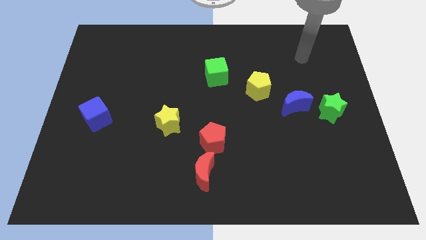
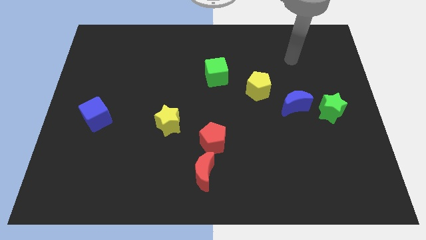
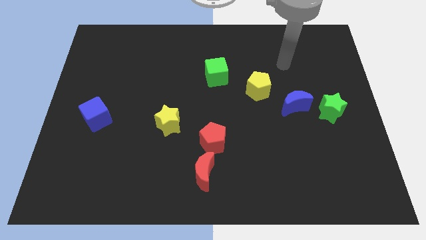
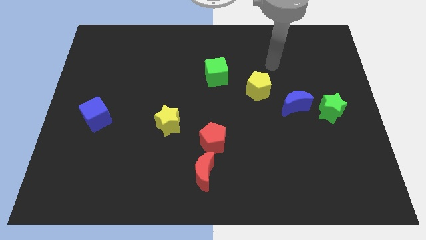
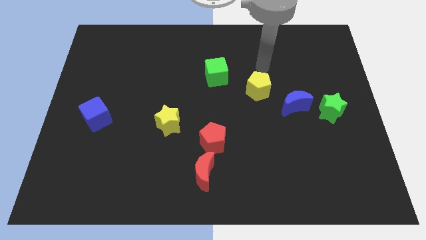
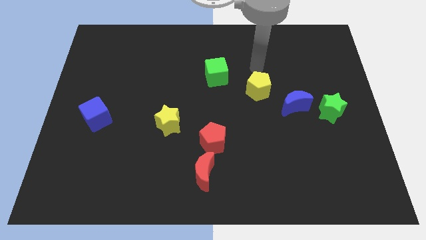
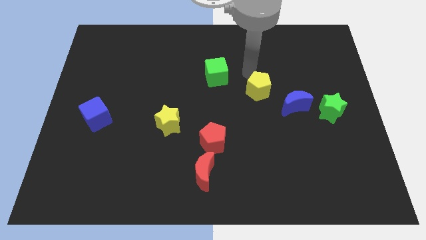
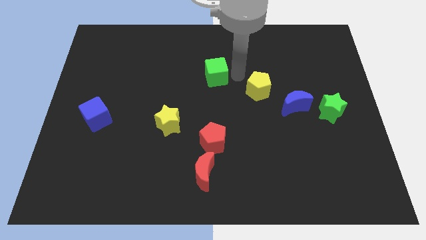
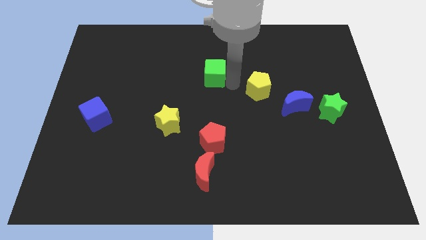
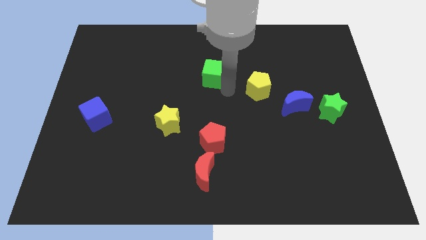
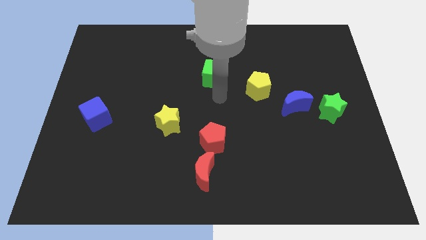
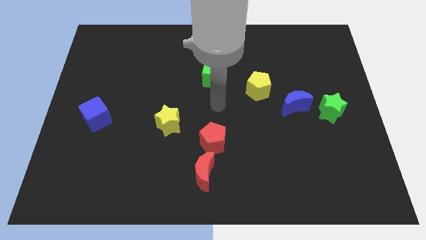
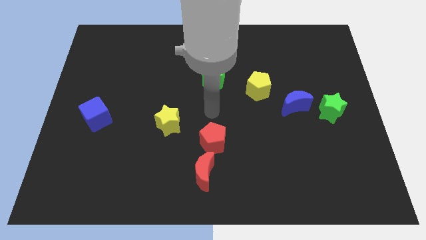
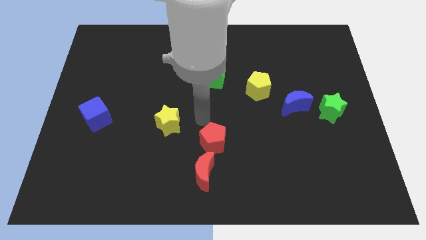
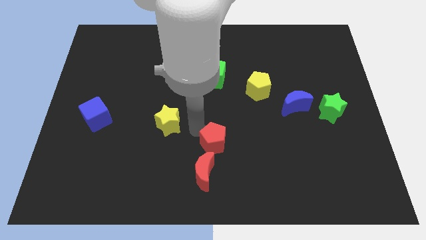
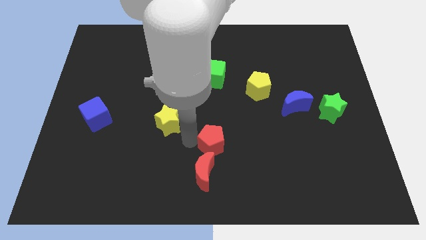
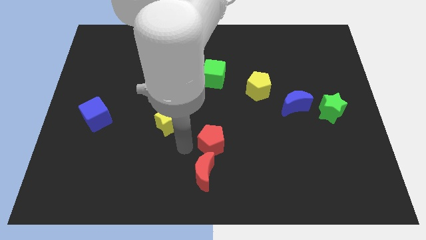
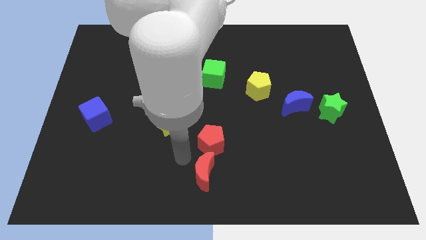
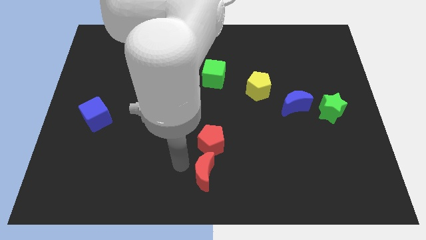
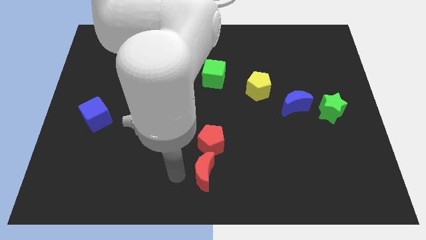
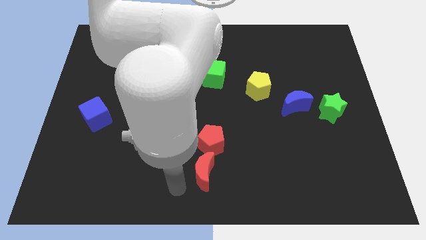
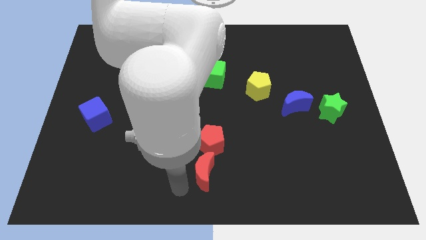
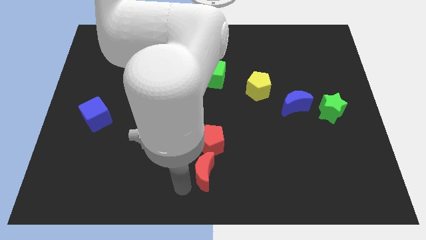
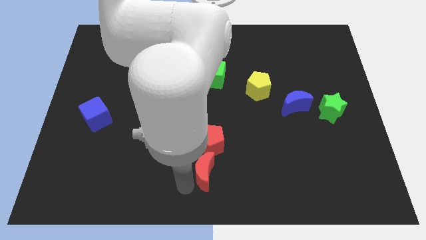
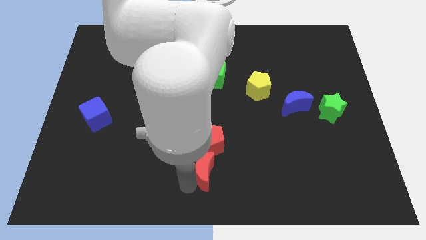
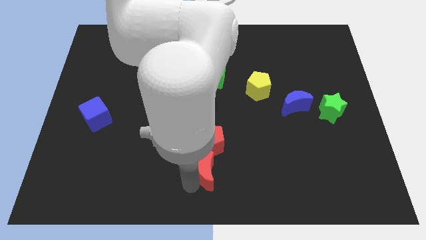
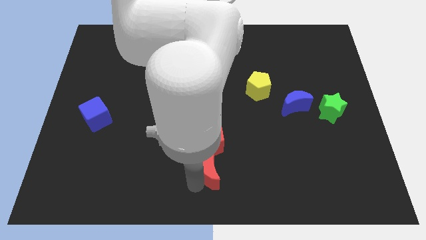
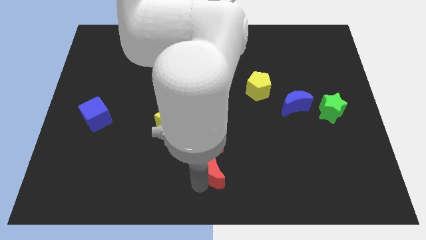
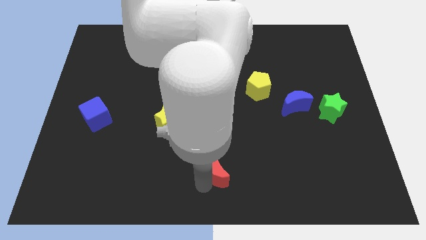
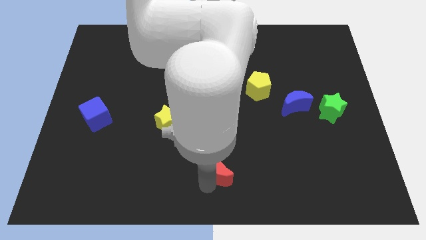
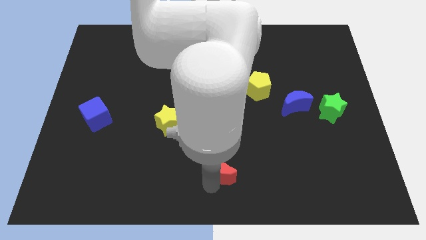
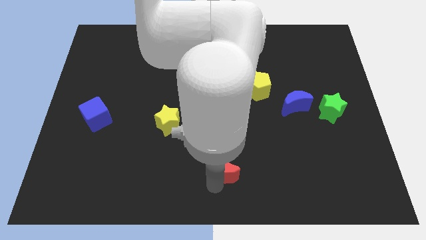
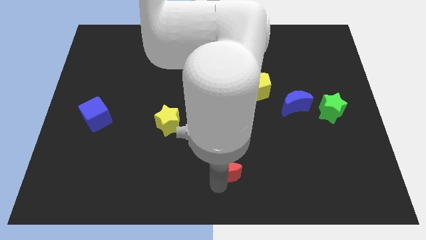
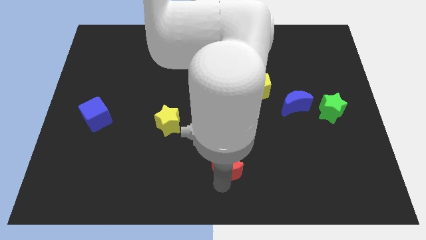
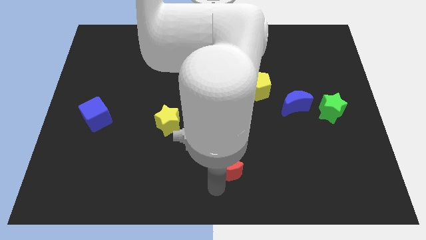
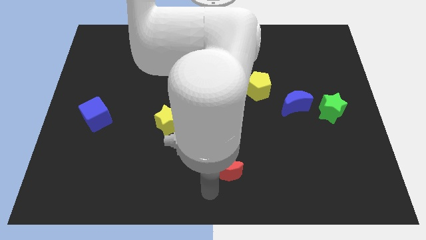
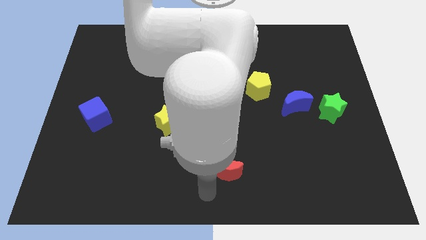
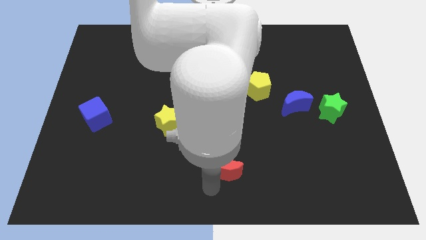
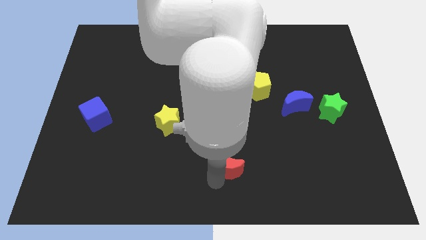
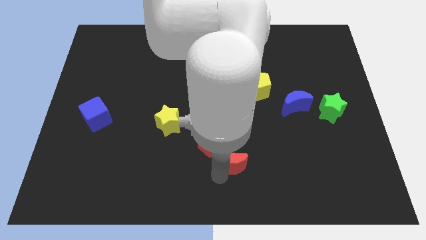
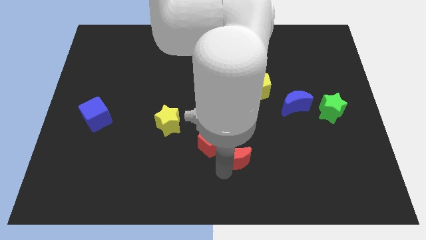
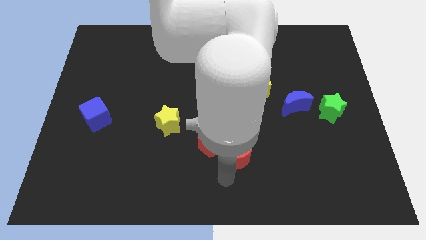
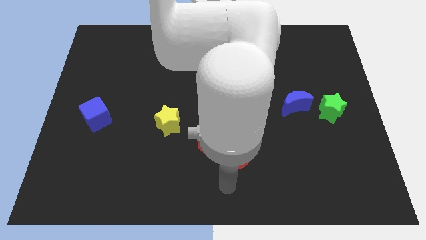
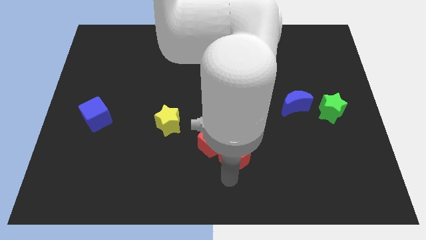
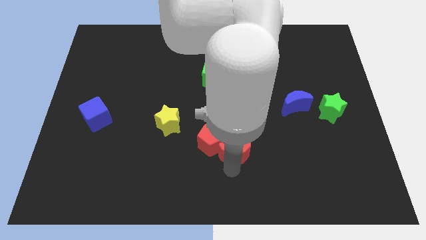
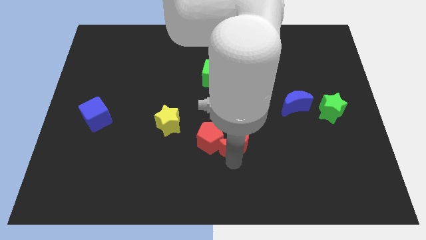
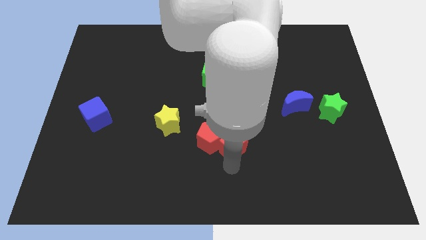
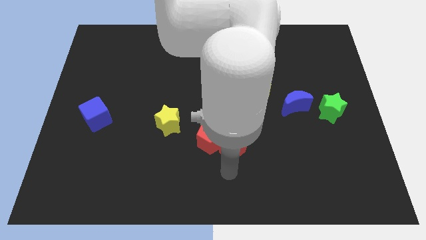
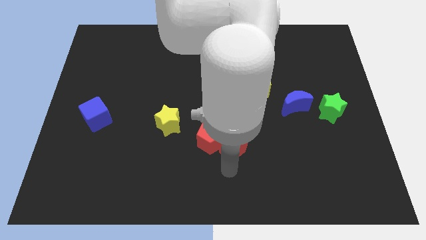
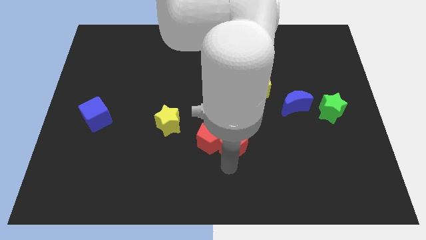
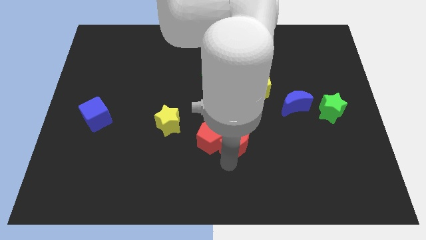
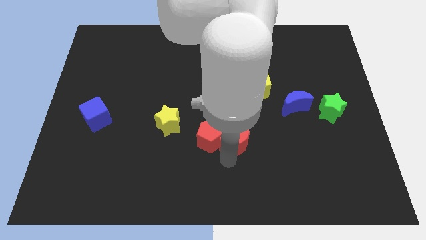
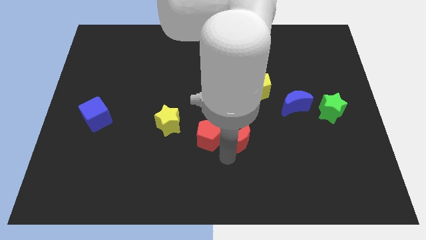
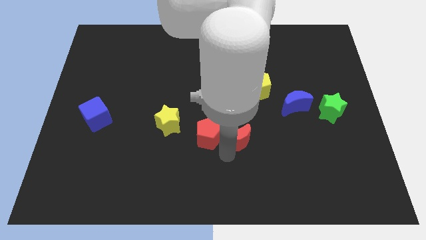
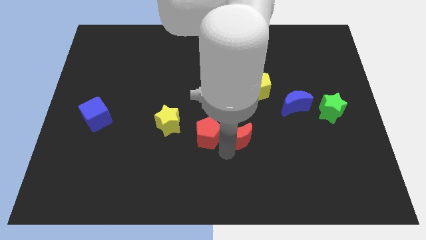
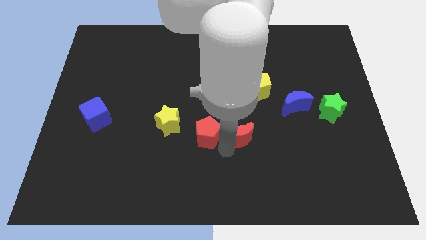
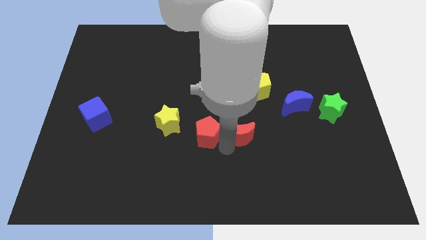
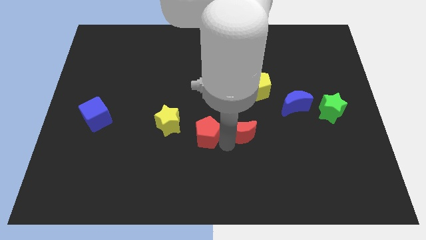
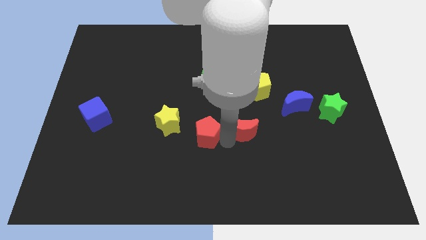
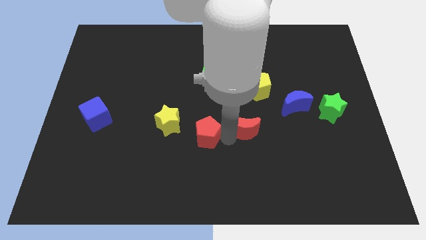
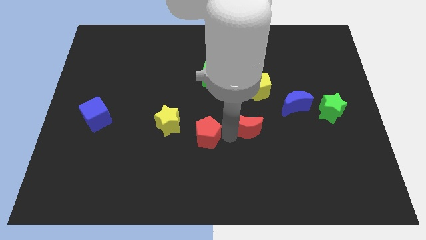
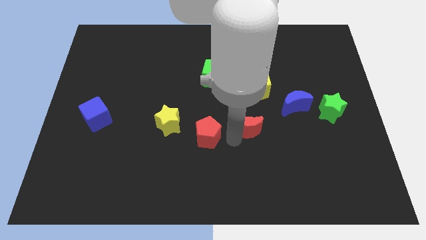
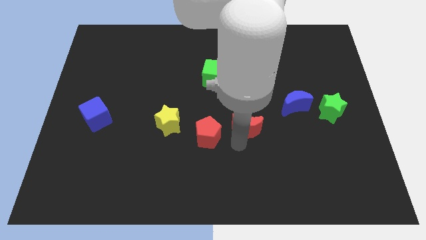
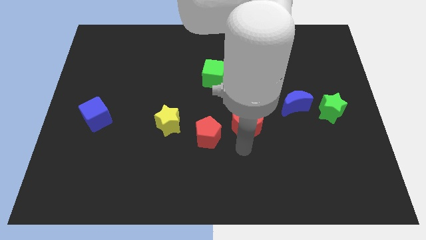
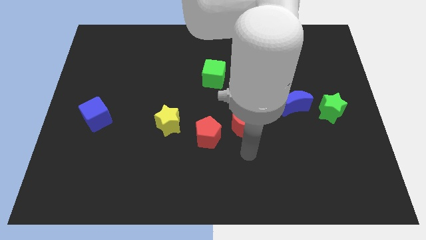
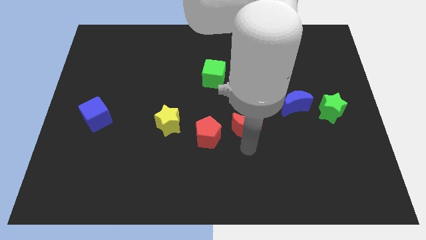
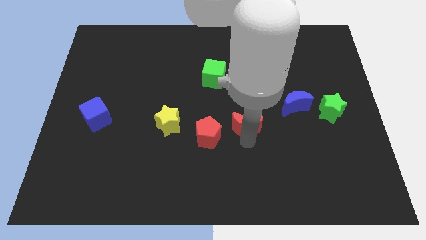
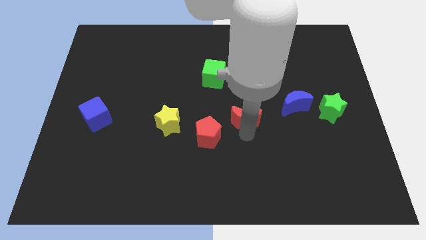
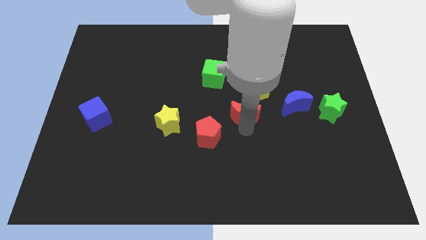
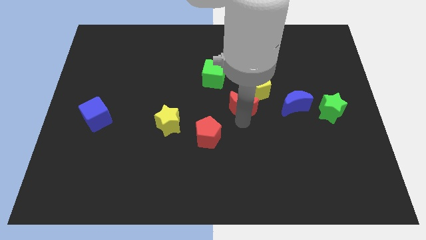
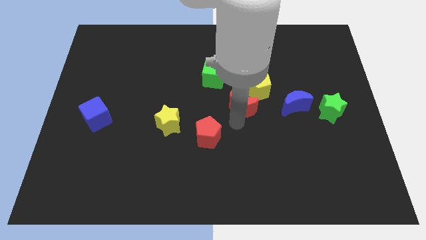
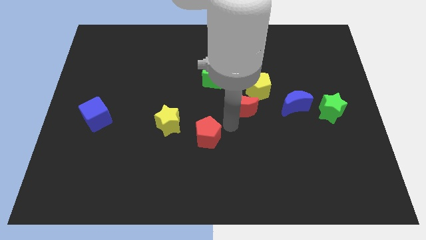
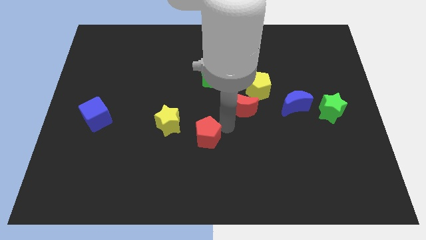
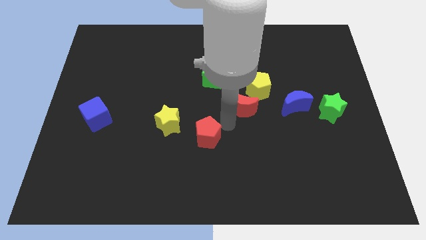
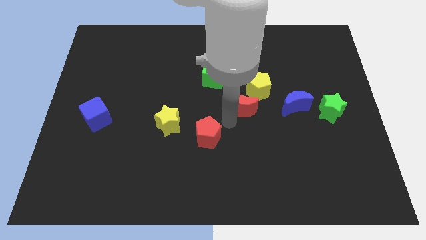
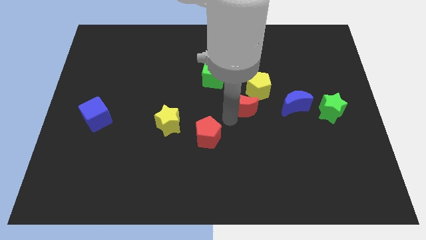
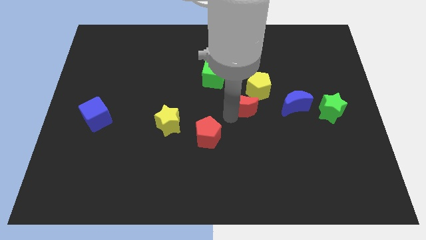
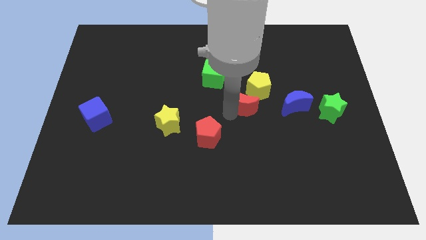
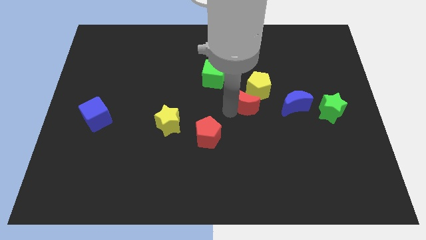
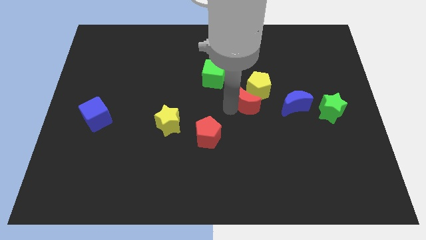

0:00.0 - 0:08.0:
move the red moon close to the yellow pentagon
